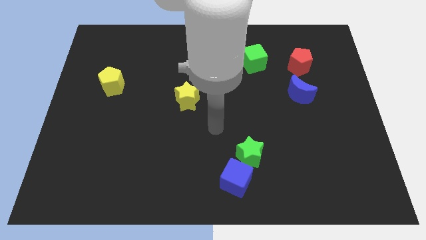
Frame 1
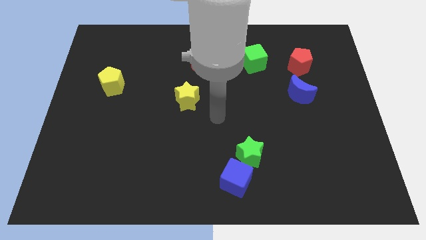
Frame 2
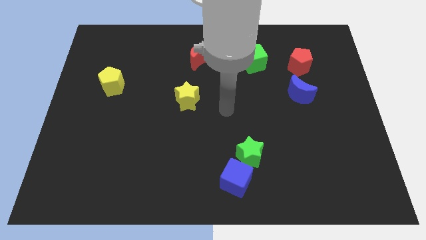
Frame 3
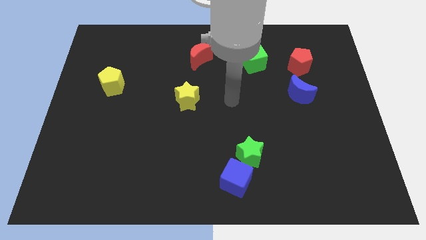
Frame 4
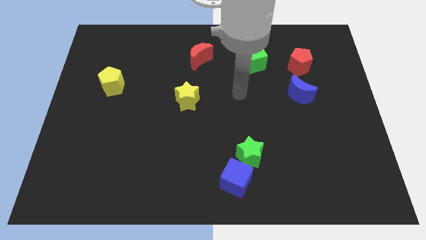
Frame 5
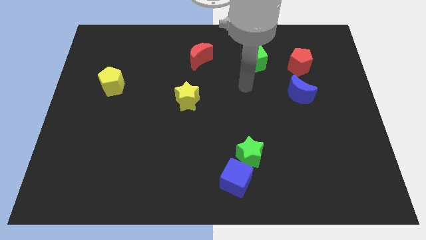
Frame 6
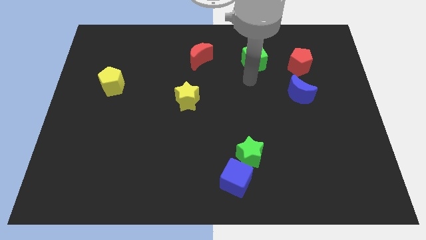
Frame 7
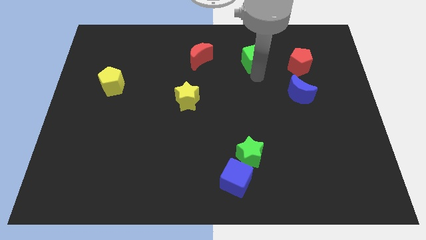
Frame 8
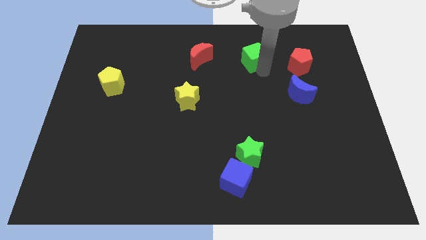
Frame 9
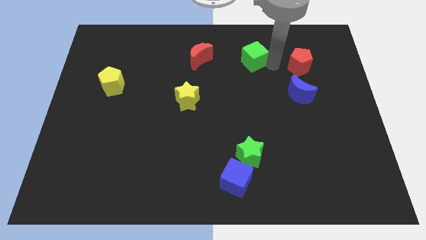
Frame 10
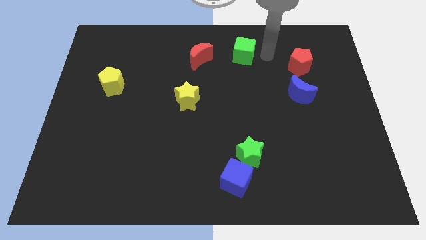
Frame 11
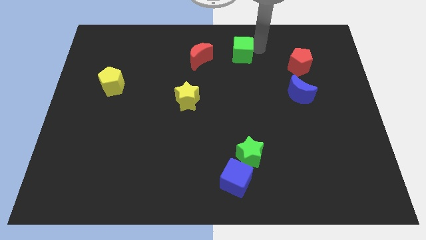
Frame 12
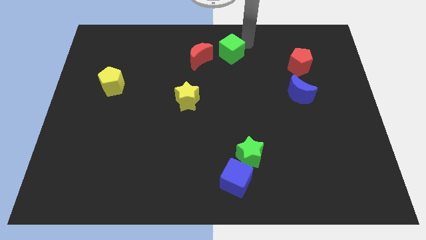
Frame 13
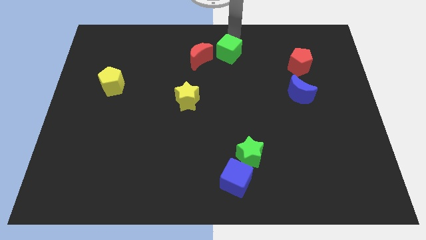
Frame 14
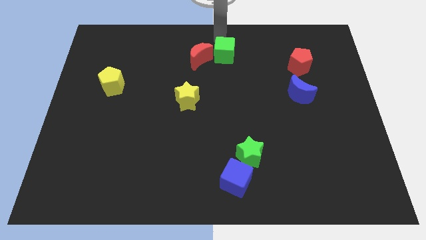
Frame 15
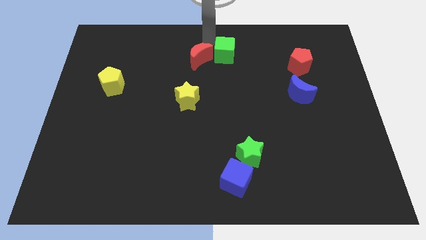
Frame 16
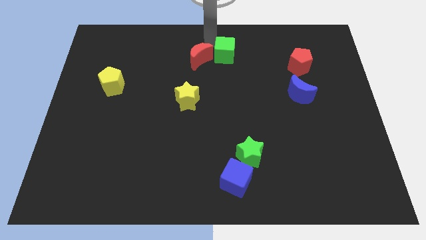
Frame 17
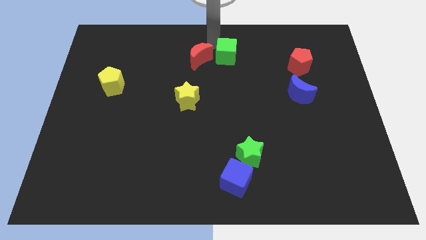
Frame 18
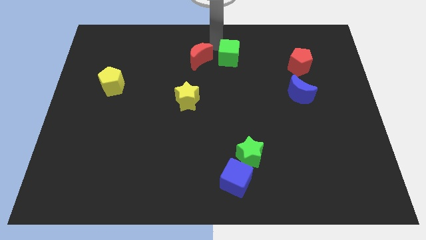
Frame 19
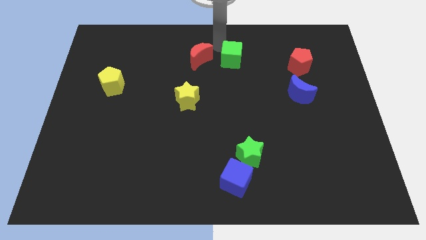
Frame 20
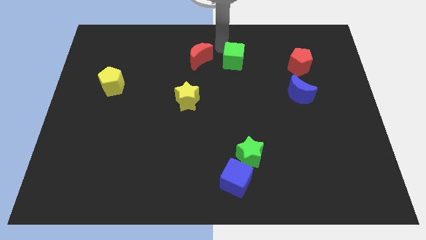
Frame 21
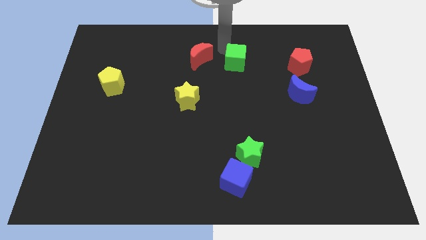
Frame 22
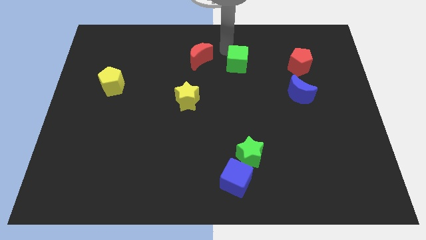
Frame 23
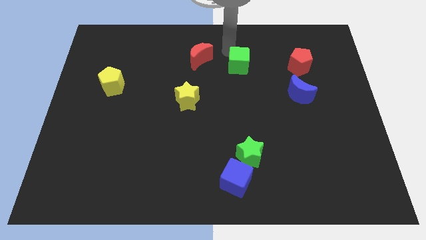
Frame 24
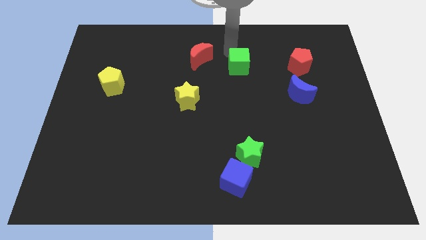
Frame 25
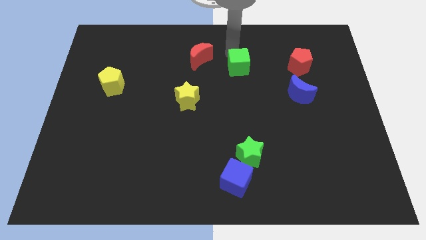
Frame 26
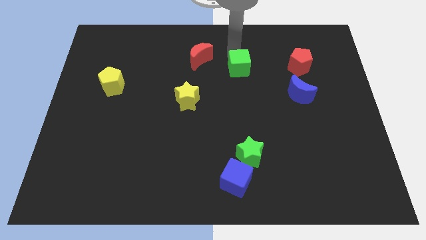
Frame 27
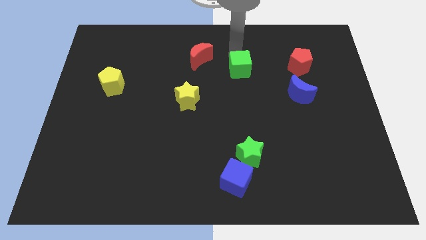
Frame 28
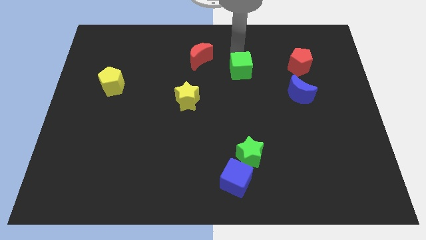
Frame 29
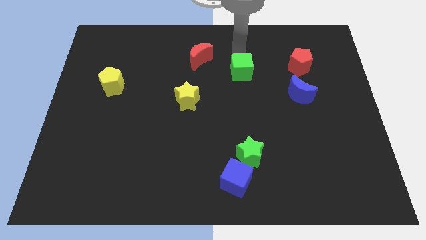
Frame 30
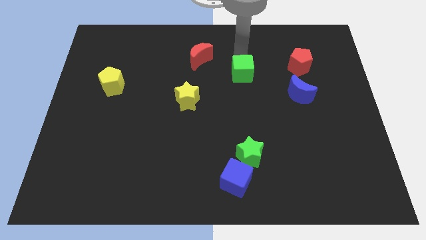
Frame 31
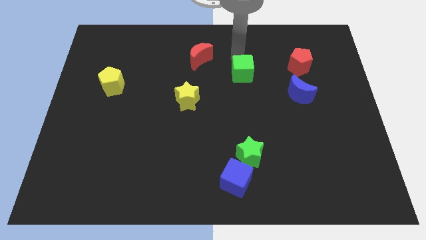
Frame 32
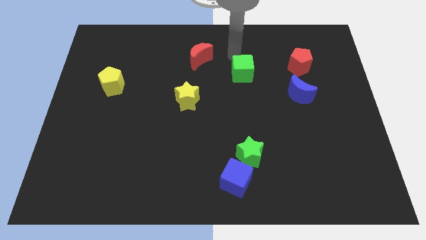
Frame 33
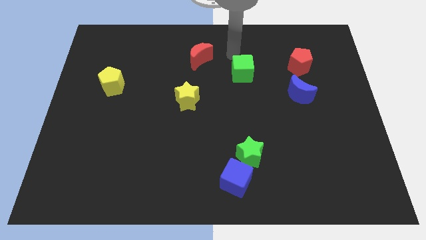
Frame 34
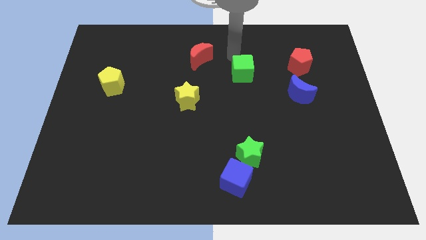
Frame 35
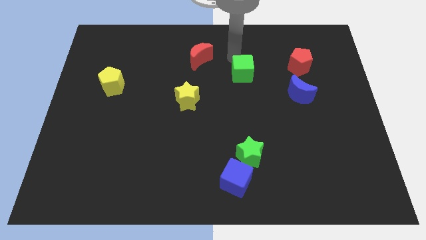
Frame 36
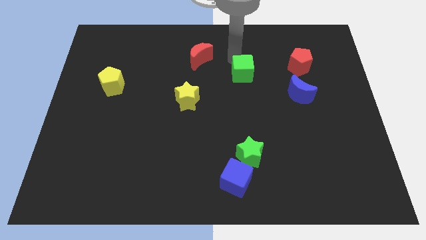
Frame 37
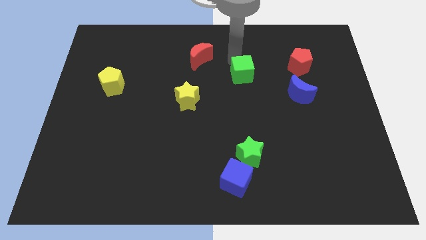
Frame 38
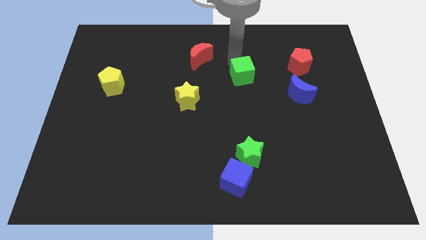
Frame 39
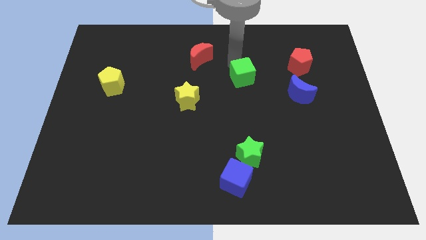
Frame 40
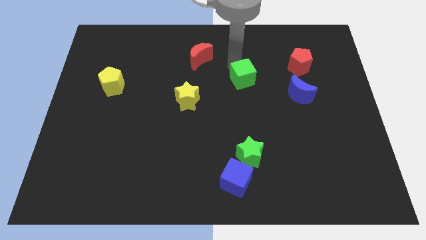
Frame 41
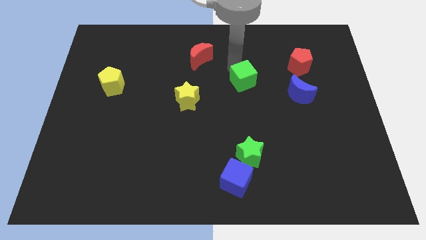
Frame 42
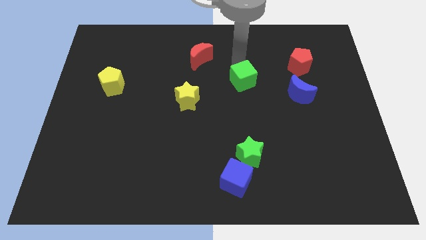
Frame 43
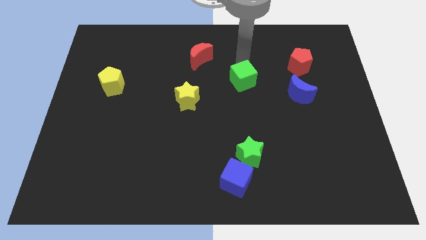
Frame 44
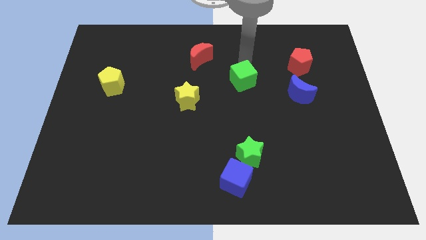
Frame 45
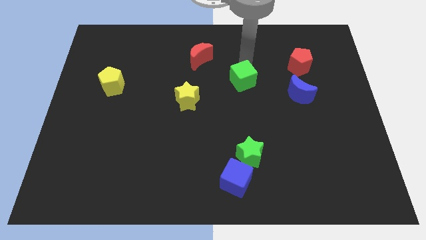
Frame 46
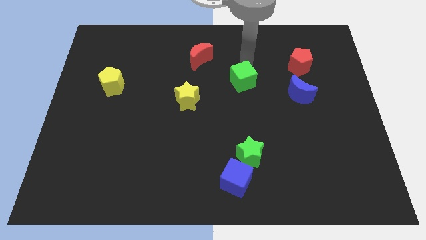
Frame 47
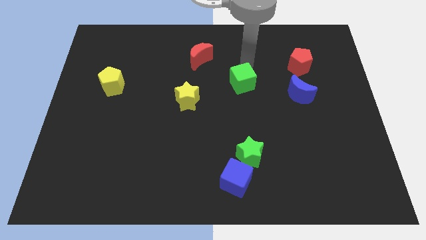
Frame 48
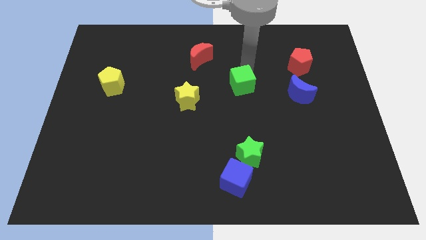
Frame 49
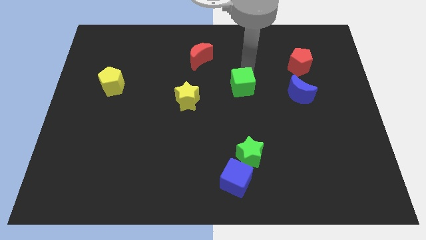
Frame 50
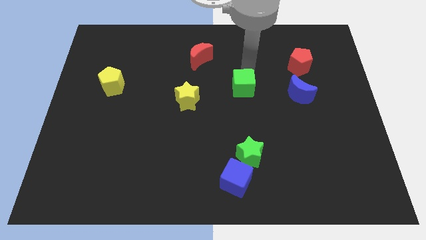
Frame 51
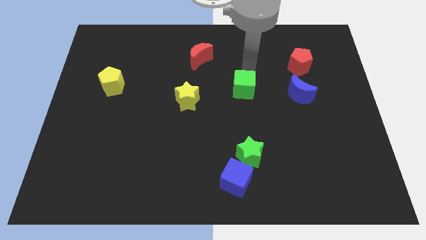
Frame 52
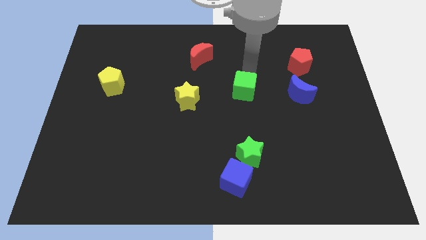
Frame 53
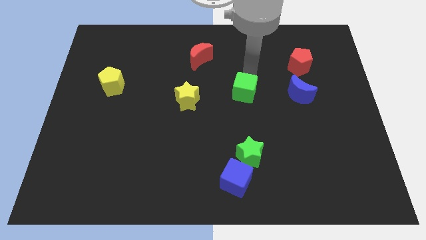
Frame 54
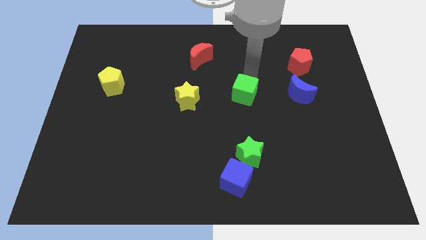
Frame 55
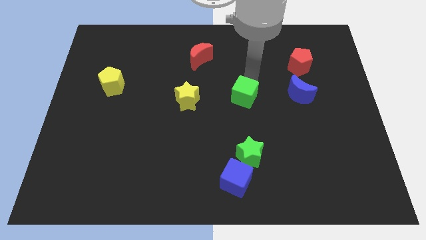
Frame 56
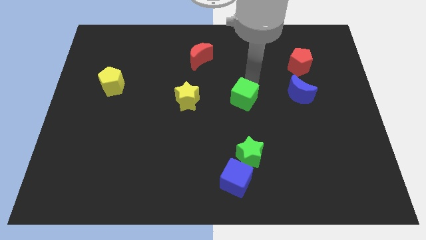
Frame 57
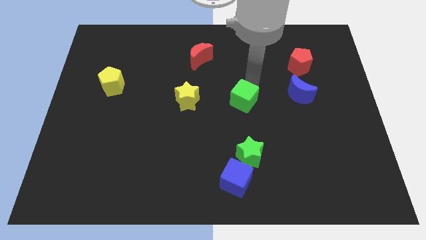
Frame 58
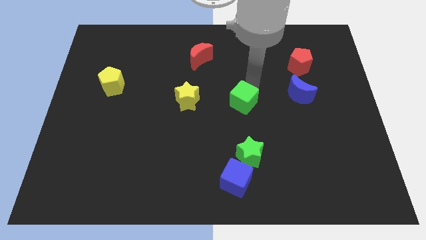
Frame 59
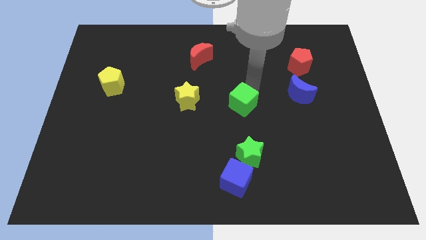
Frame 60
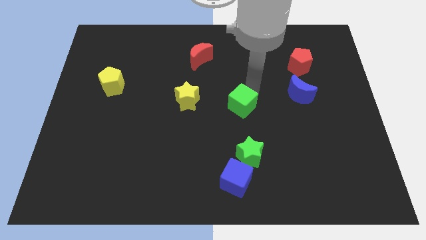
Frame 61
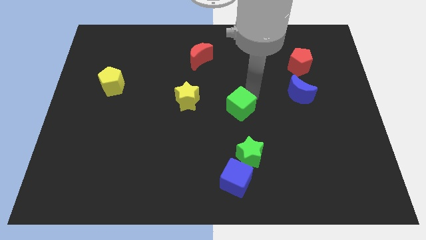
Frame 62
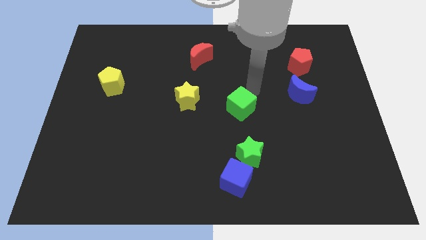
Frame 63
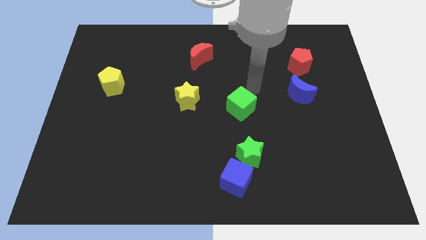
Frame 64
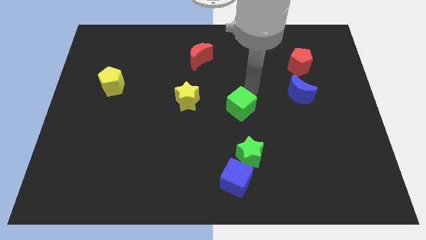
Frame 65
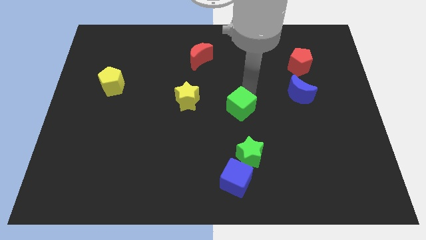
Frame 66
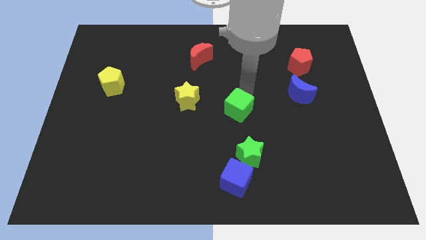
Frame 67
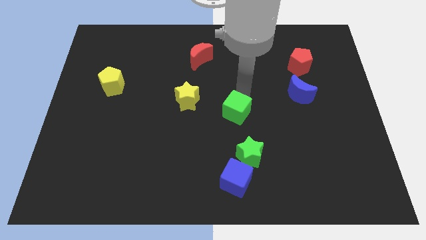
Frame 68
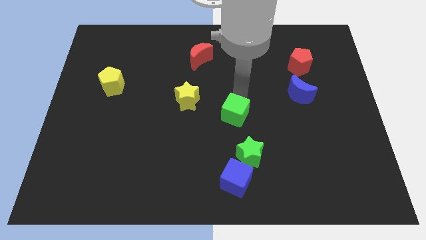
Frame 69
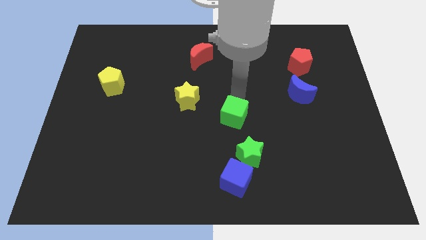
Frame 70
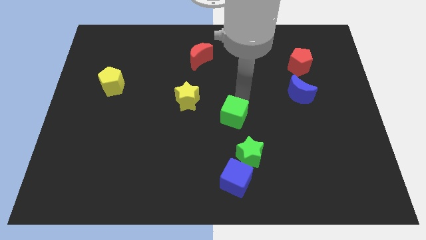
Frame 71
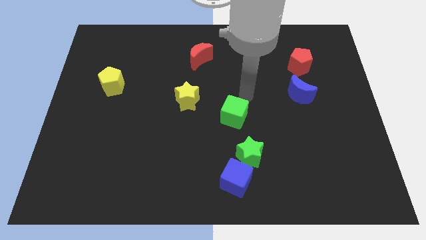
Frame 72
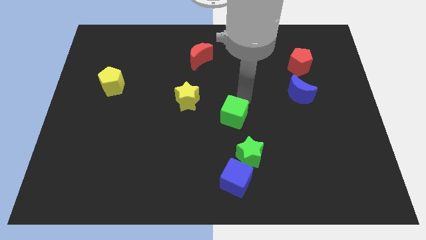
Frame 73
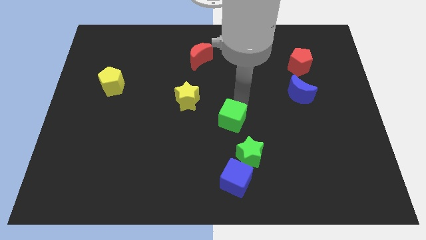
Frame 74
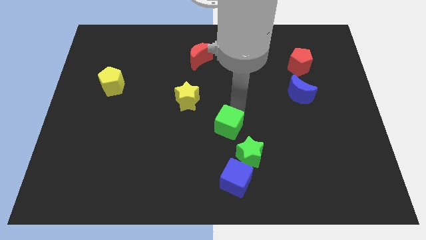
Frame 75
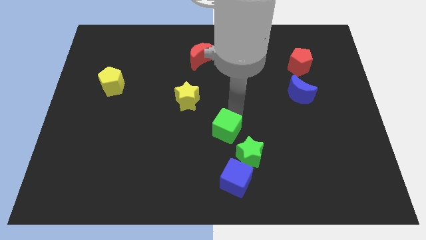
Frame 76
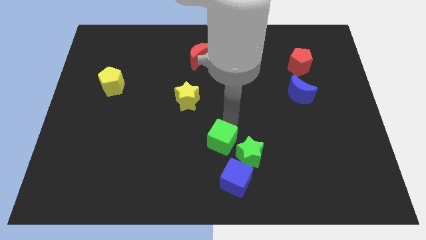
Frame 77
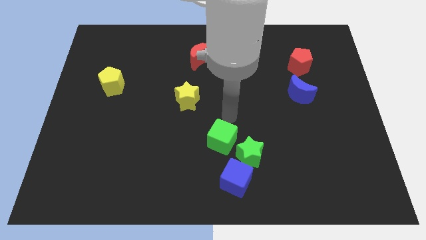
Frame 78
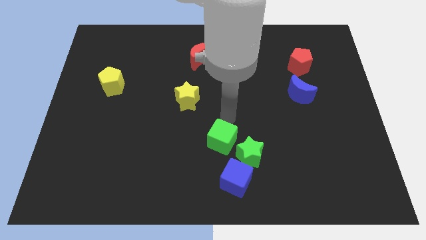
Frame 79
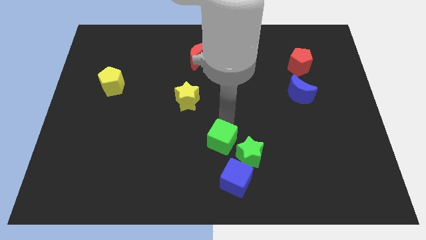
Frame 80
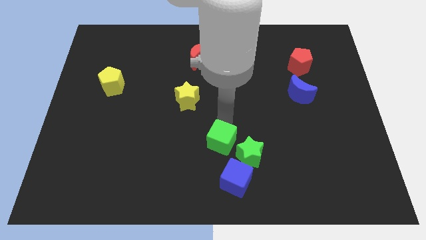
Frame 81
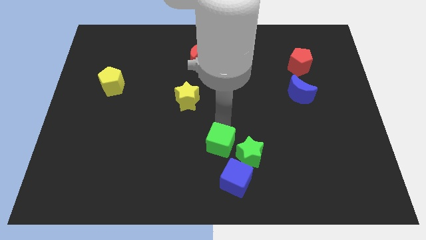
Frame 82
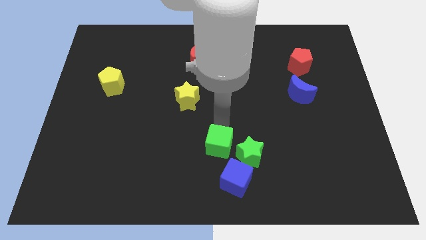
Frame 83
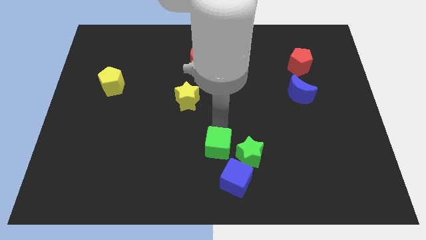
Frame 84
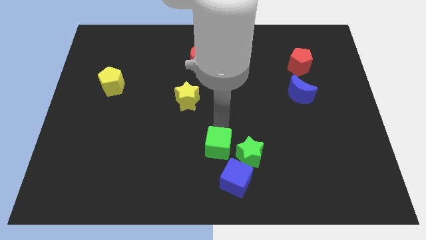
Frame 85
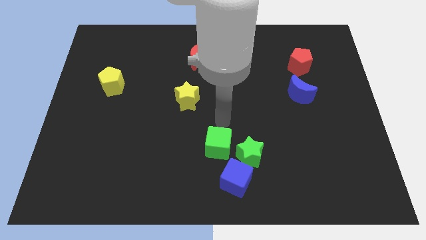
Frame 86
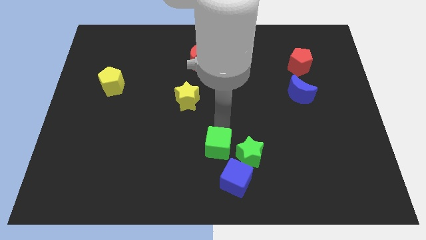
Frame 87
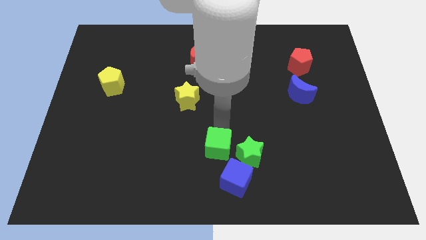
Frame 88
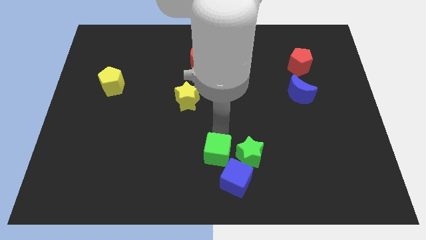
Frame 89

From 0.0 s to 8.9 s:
move the green cube to the bottom side
